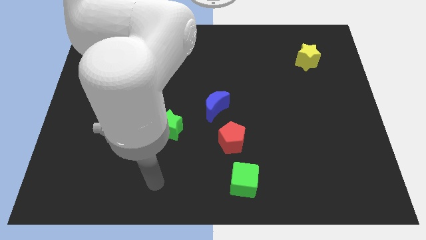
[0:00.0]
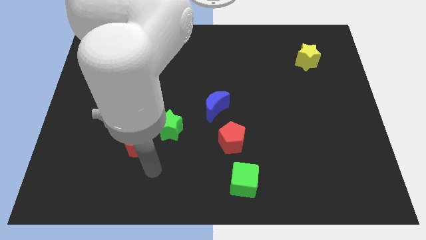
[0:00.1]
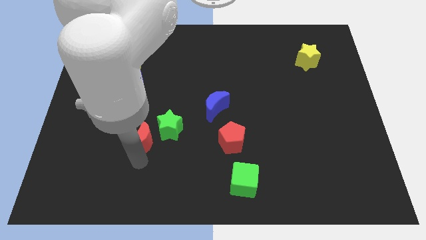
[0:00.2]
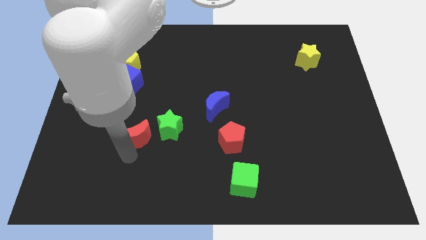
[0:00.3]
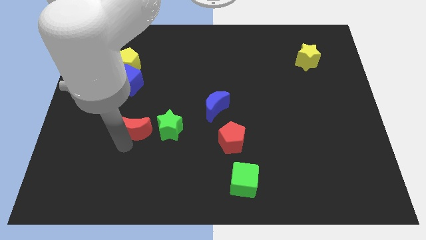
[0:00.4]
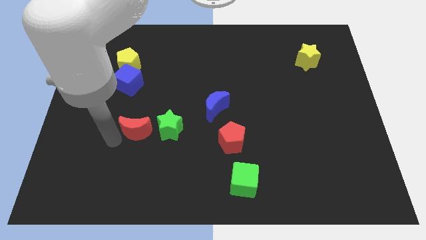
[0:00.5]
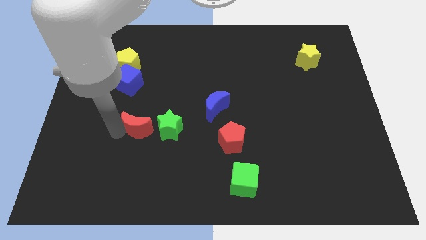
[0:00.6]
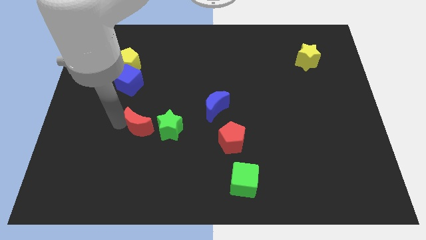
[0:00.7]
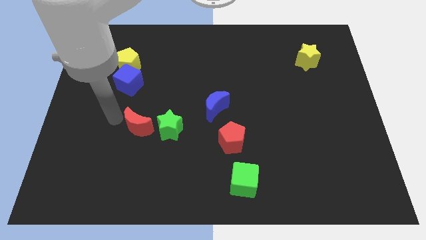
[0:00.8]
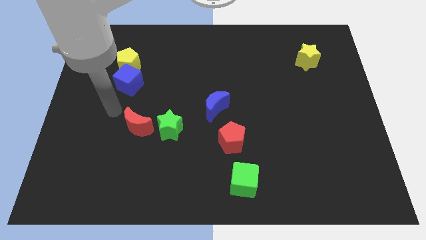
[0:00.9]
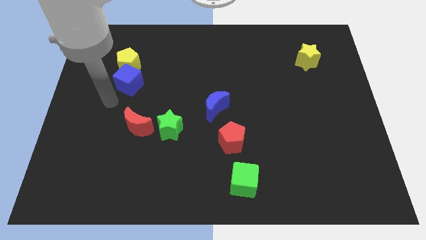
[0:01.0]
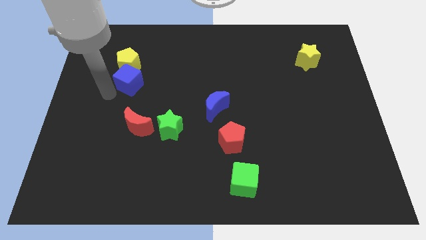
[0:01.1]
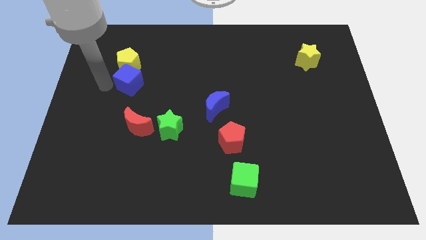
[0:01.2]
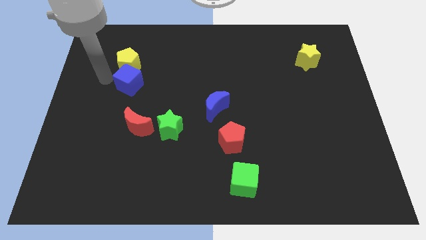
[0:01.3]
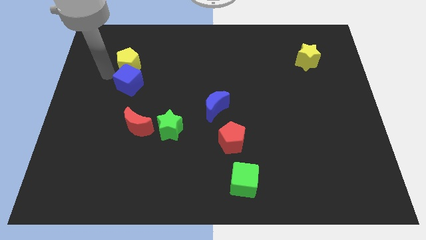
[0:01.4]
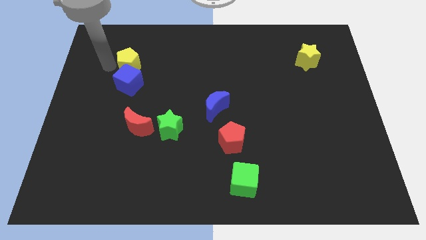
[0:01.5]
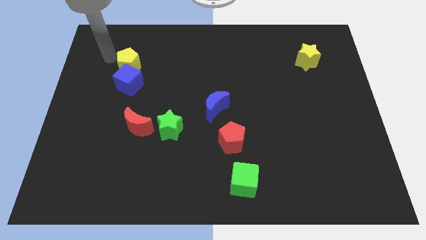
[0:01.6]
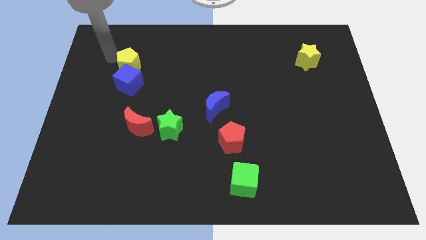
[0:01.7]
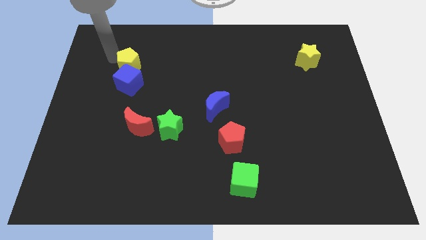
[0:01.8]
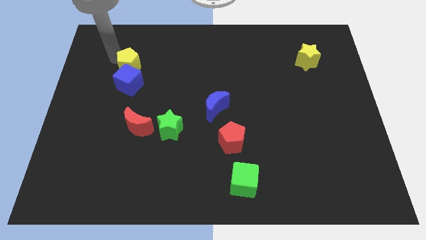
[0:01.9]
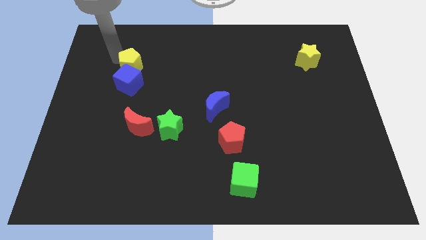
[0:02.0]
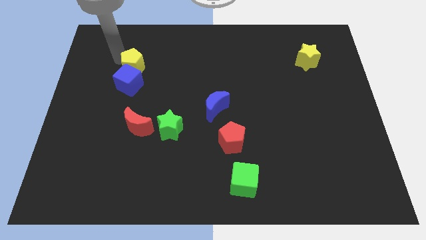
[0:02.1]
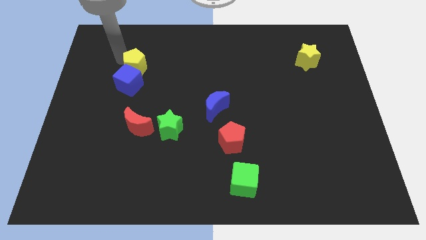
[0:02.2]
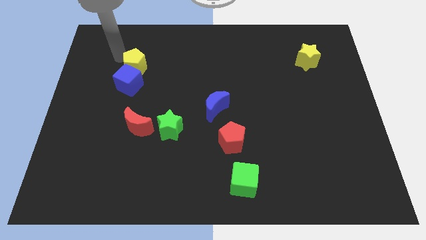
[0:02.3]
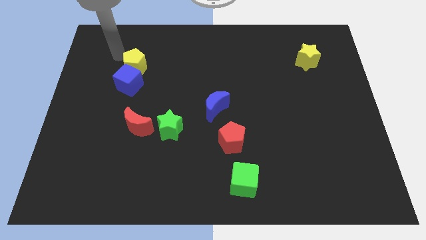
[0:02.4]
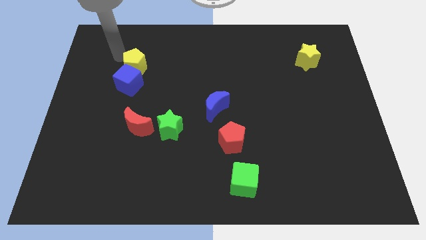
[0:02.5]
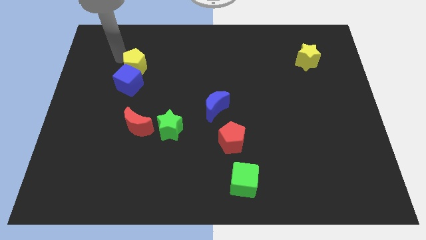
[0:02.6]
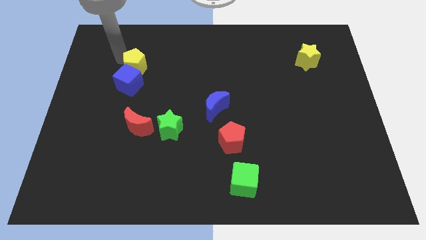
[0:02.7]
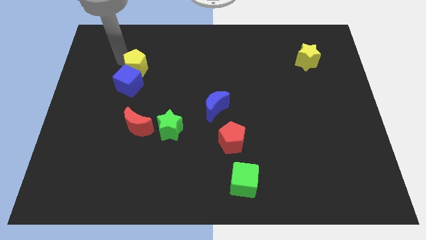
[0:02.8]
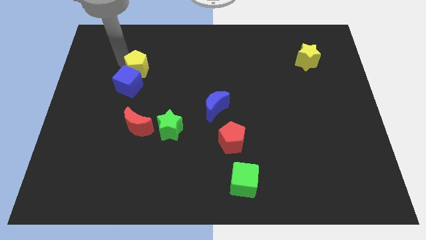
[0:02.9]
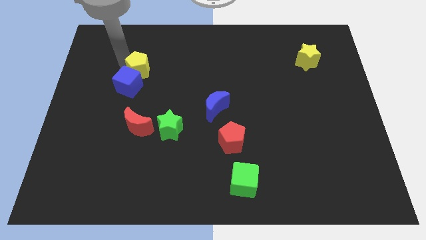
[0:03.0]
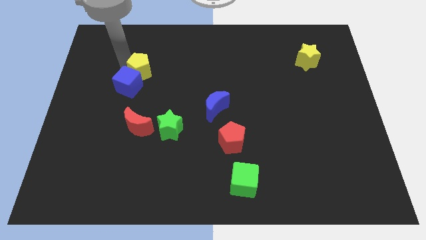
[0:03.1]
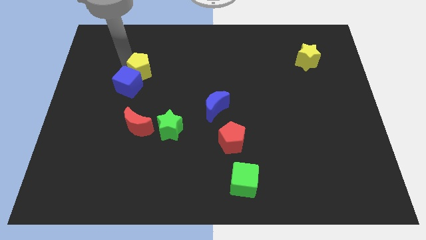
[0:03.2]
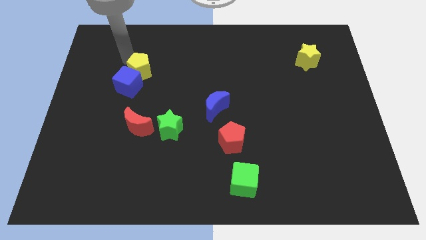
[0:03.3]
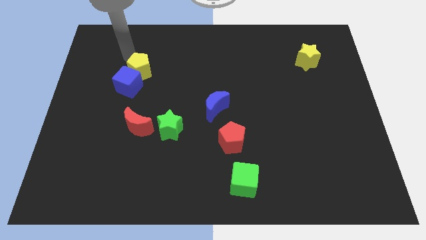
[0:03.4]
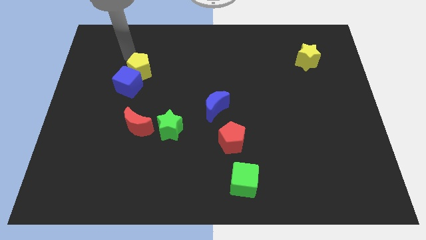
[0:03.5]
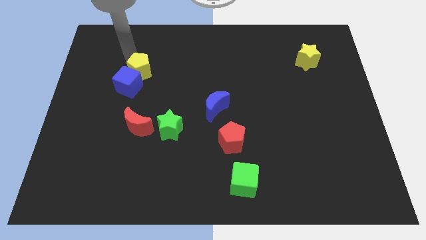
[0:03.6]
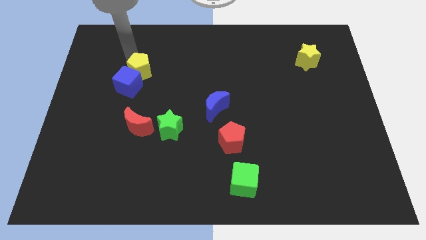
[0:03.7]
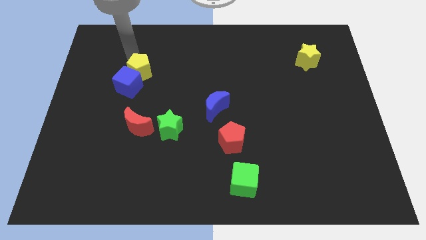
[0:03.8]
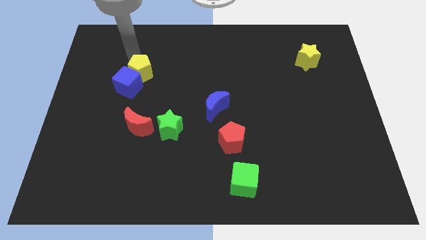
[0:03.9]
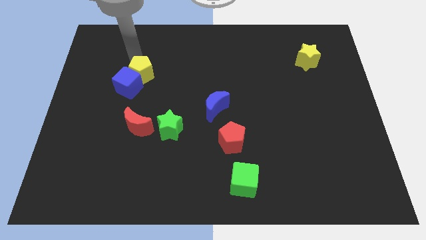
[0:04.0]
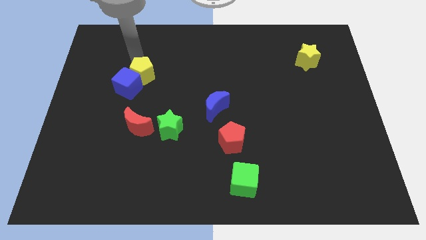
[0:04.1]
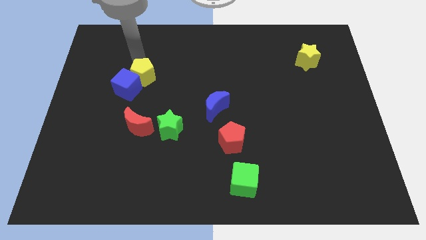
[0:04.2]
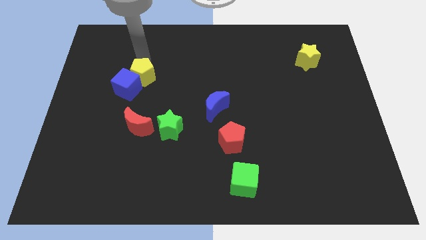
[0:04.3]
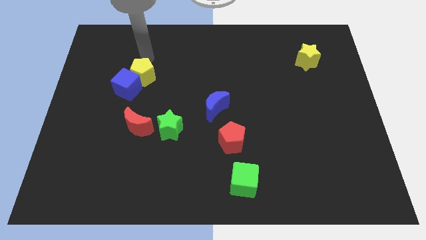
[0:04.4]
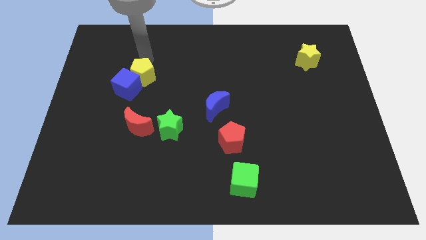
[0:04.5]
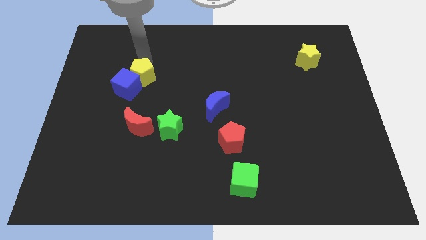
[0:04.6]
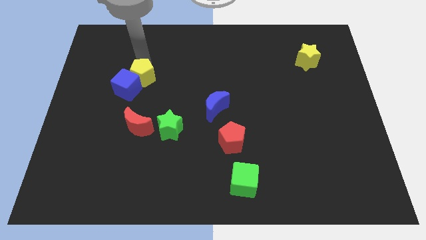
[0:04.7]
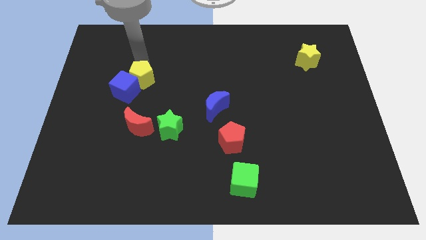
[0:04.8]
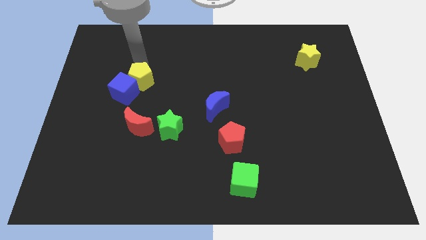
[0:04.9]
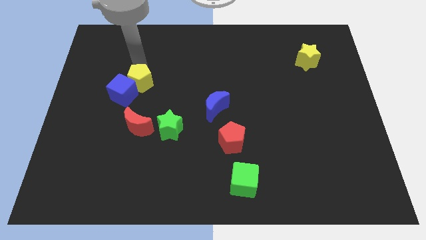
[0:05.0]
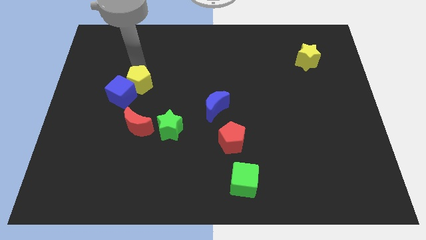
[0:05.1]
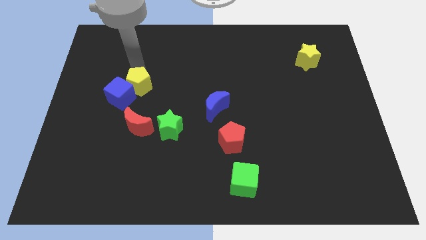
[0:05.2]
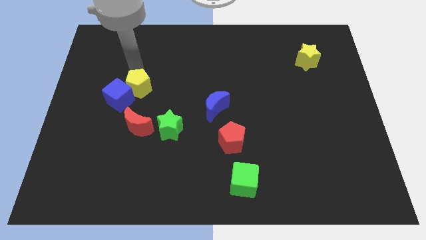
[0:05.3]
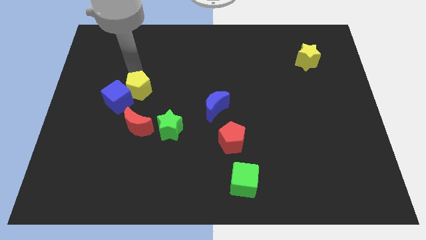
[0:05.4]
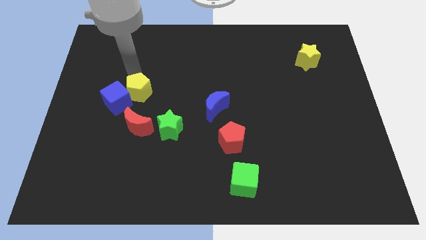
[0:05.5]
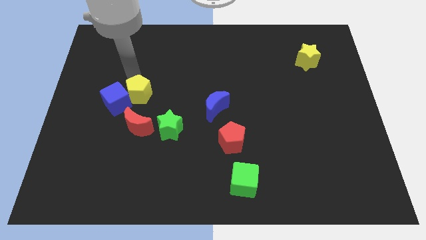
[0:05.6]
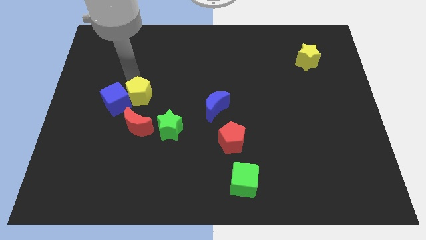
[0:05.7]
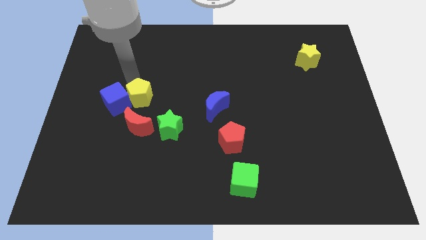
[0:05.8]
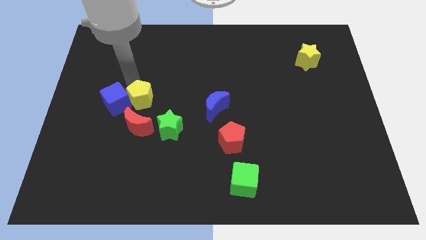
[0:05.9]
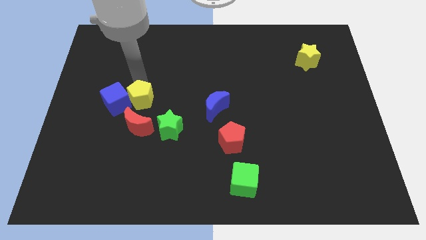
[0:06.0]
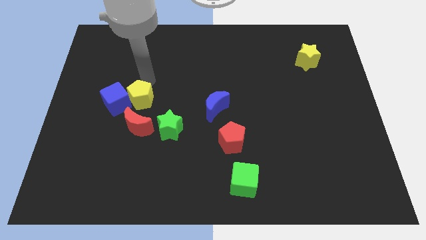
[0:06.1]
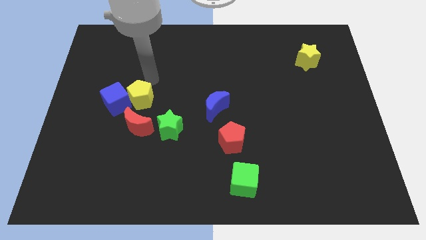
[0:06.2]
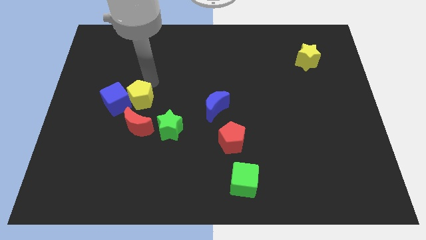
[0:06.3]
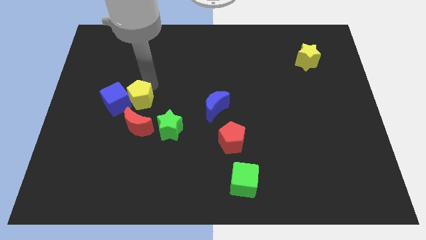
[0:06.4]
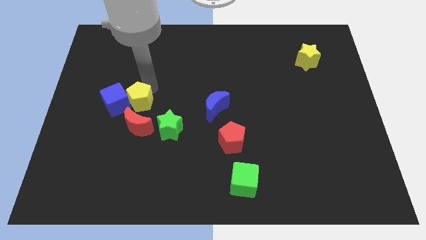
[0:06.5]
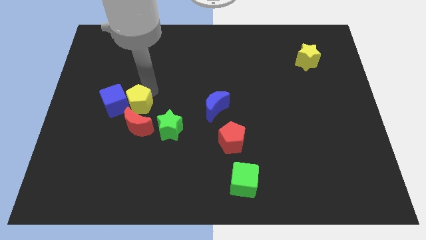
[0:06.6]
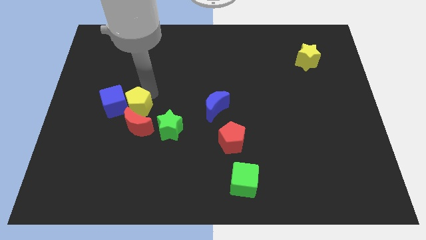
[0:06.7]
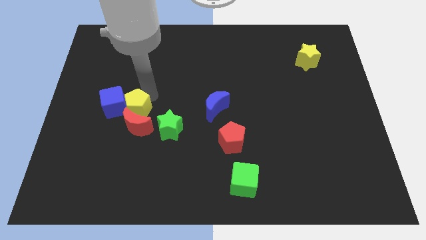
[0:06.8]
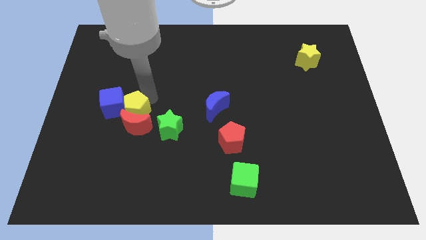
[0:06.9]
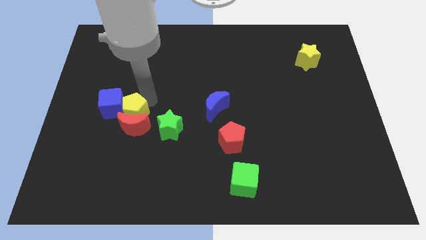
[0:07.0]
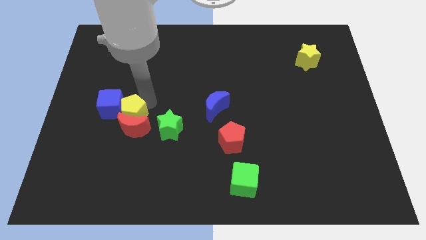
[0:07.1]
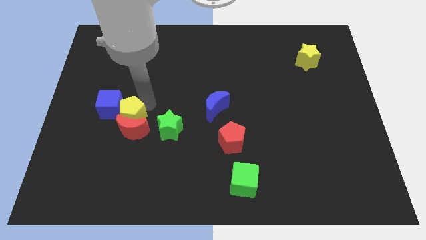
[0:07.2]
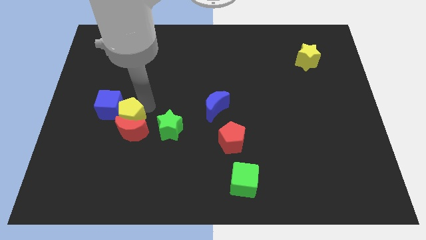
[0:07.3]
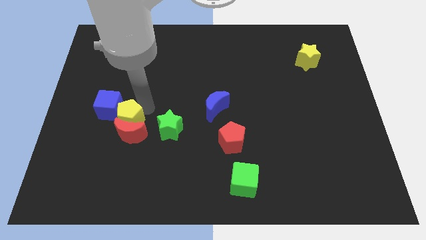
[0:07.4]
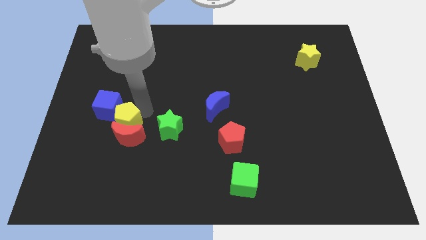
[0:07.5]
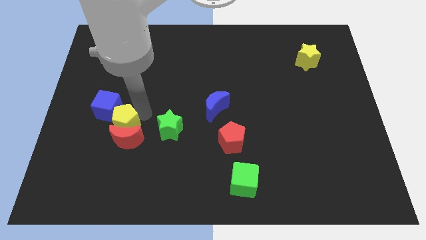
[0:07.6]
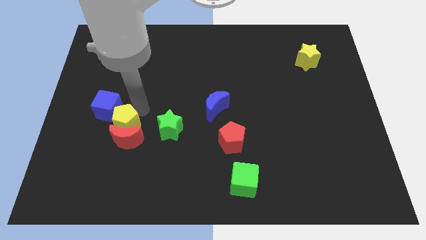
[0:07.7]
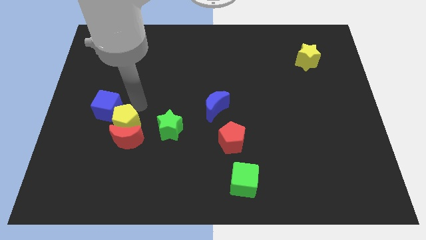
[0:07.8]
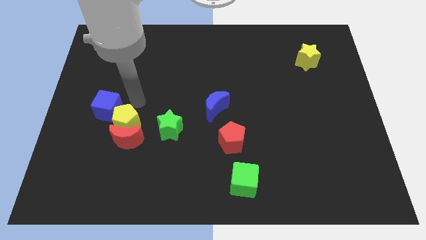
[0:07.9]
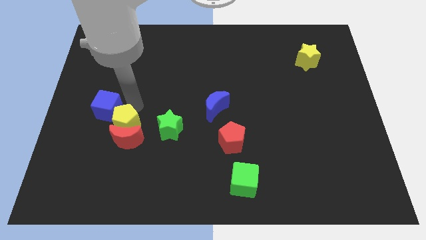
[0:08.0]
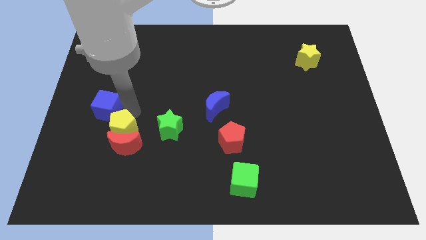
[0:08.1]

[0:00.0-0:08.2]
slide the yellow pentagon downwards
